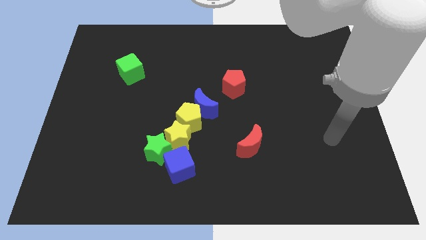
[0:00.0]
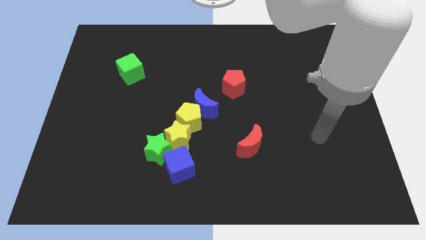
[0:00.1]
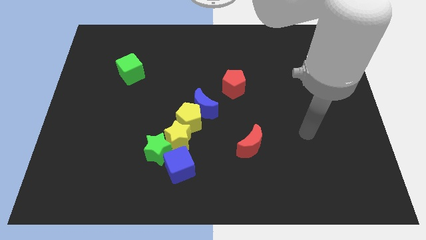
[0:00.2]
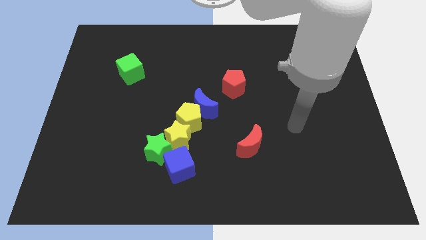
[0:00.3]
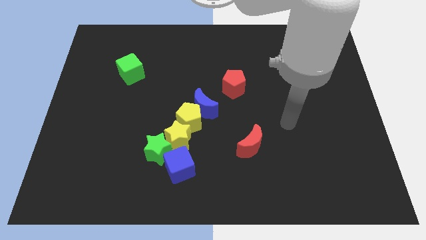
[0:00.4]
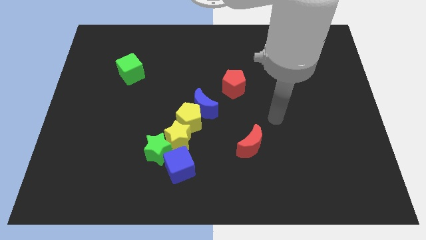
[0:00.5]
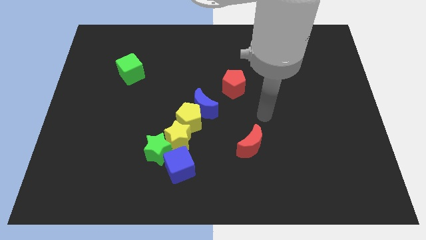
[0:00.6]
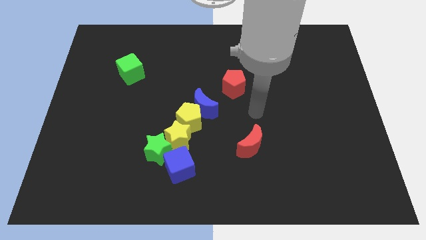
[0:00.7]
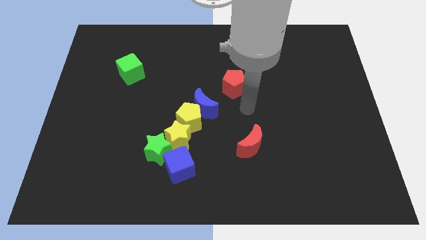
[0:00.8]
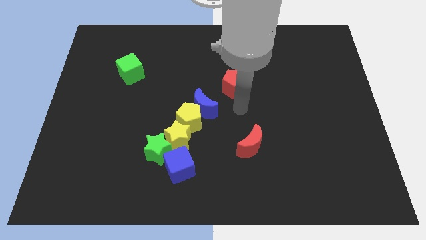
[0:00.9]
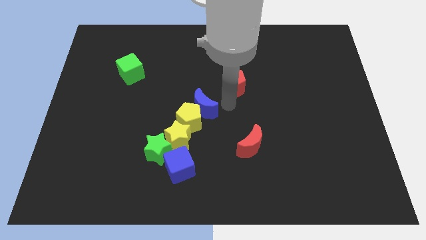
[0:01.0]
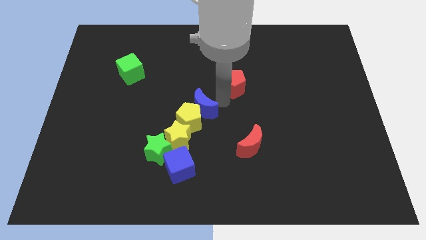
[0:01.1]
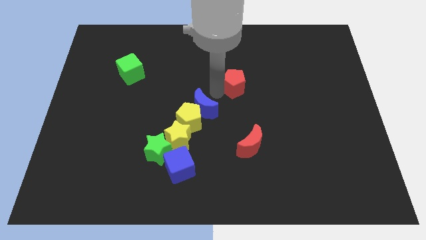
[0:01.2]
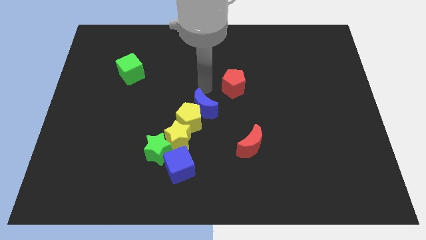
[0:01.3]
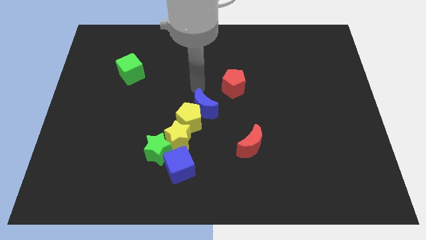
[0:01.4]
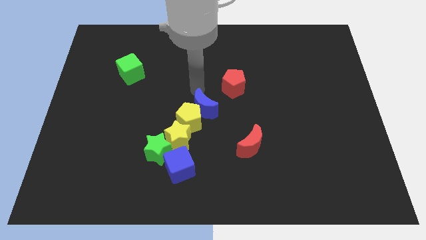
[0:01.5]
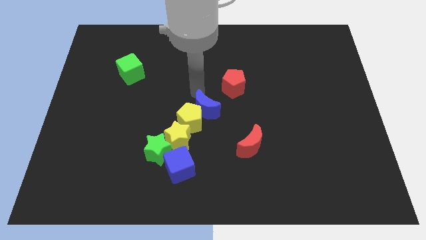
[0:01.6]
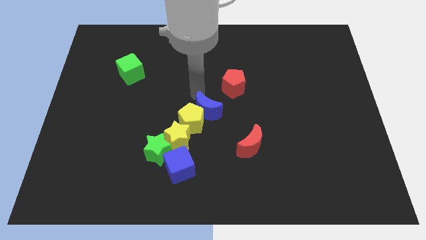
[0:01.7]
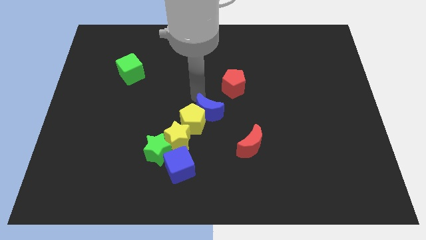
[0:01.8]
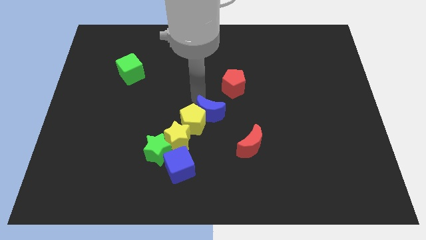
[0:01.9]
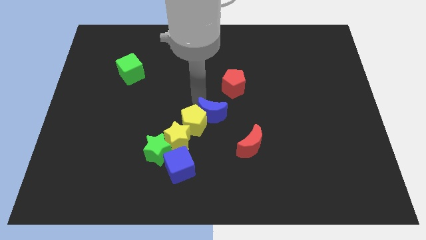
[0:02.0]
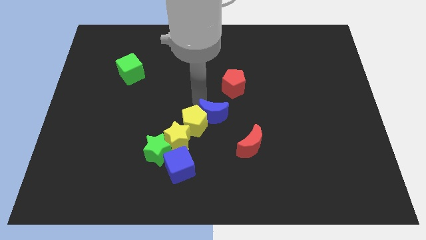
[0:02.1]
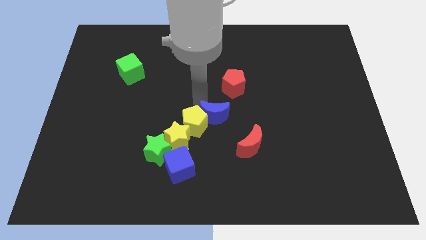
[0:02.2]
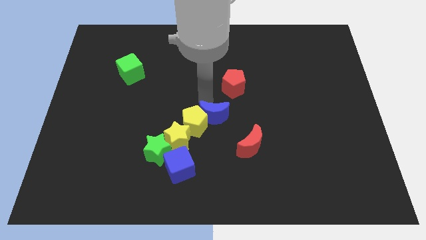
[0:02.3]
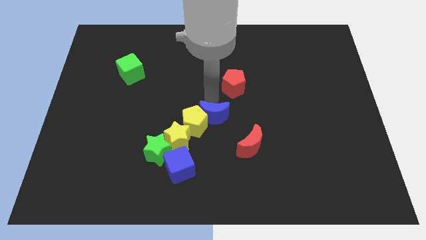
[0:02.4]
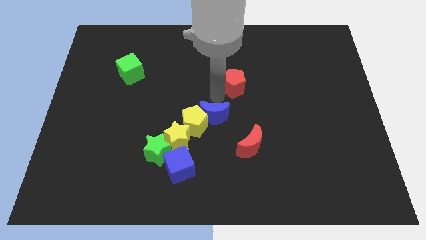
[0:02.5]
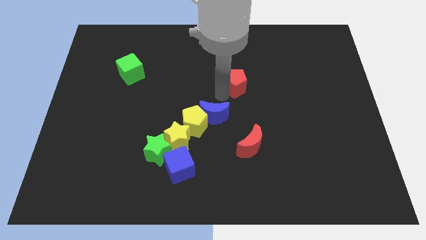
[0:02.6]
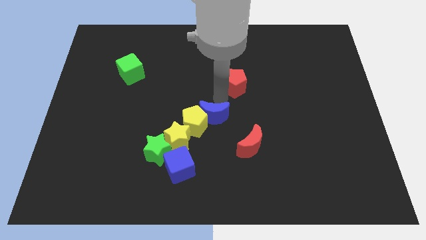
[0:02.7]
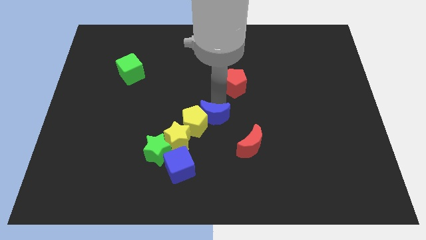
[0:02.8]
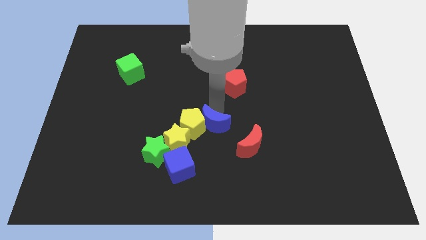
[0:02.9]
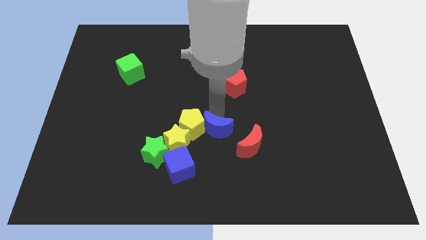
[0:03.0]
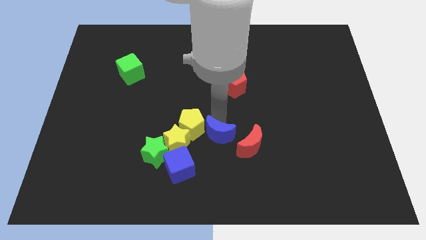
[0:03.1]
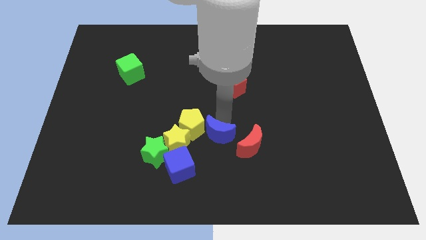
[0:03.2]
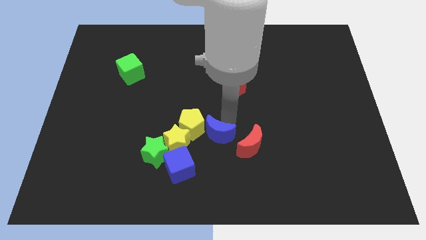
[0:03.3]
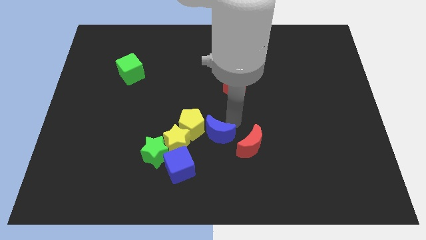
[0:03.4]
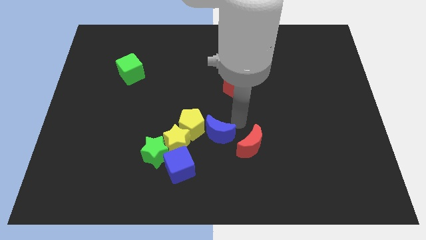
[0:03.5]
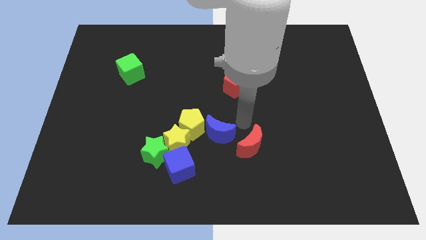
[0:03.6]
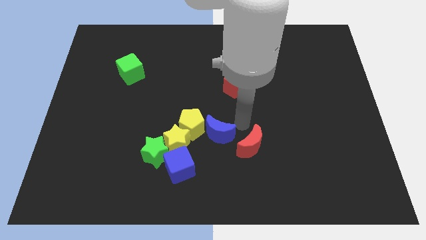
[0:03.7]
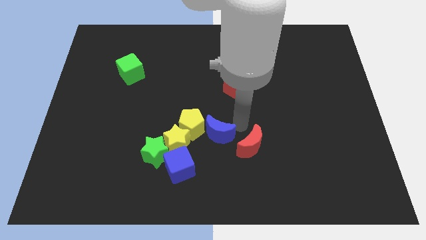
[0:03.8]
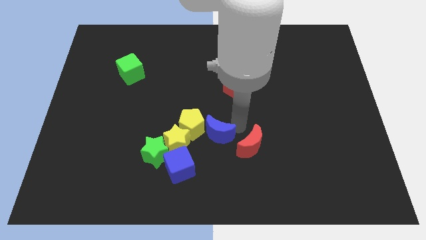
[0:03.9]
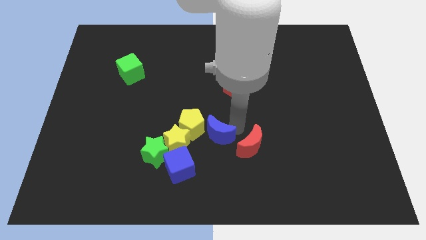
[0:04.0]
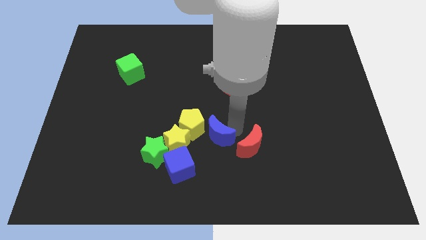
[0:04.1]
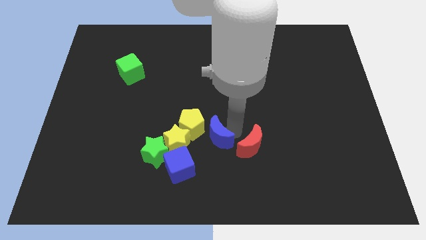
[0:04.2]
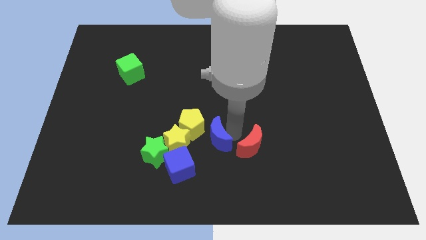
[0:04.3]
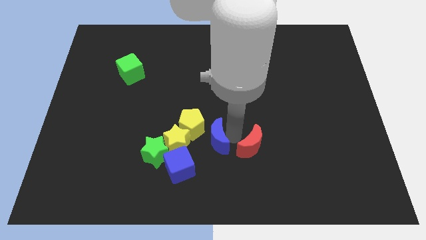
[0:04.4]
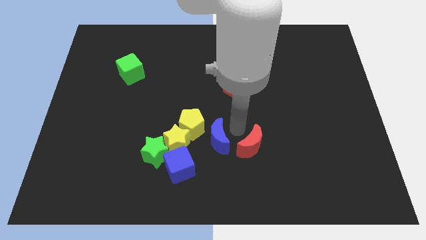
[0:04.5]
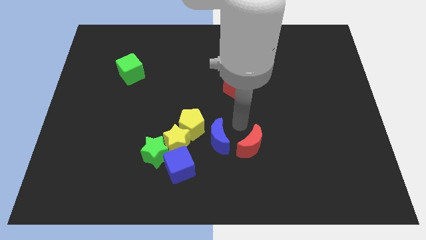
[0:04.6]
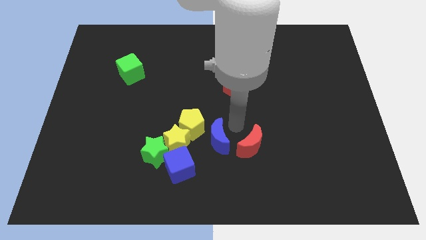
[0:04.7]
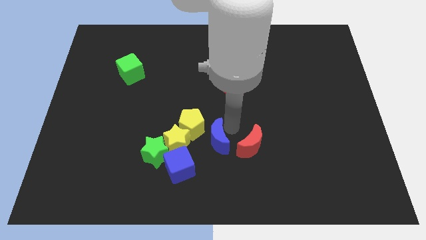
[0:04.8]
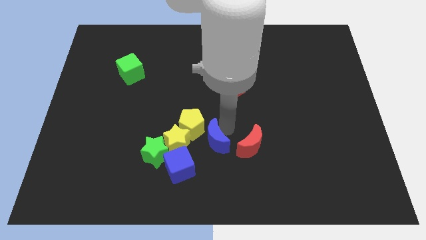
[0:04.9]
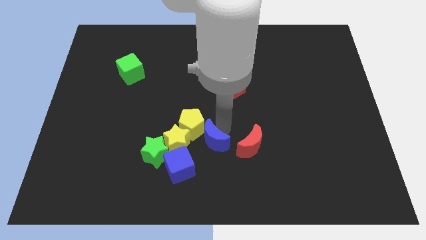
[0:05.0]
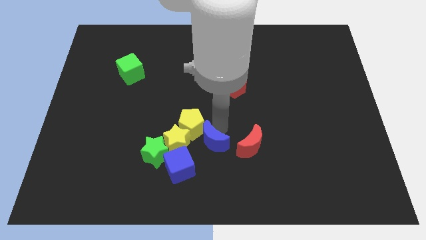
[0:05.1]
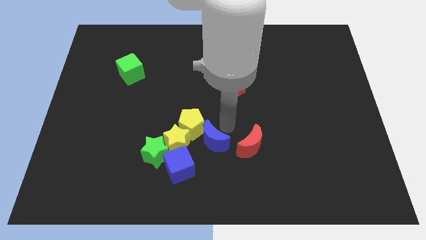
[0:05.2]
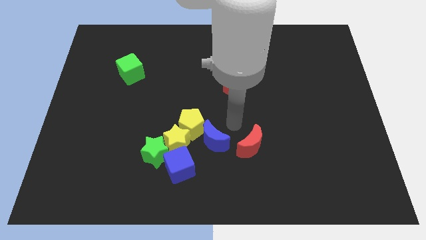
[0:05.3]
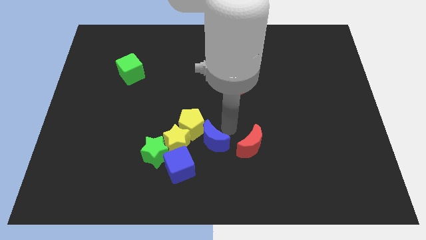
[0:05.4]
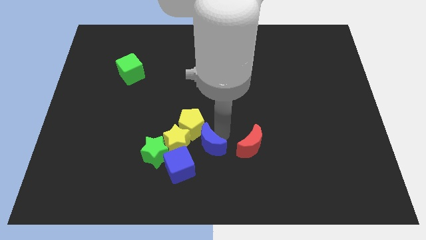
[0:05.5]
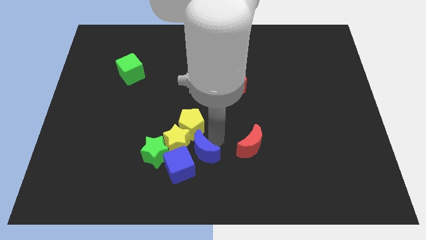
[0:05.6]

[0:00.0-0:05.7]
slide the blue moon next to the blue cube

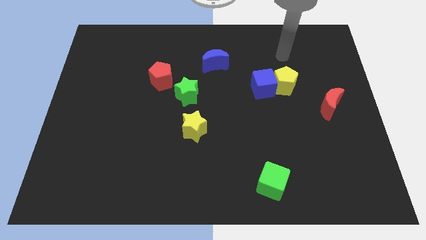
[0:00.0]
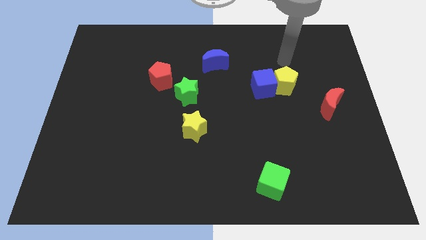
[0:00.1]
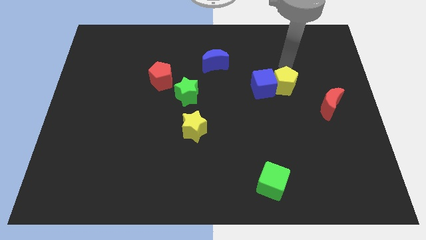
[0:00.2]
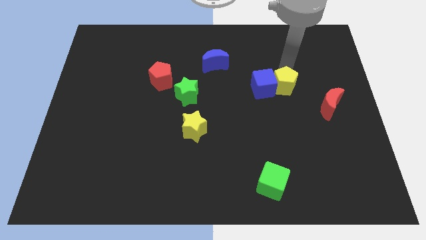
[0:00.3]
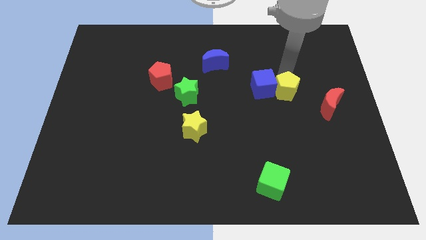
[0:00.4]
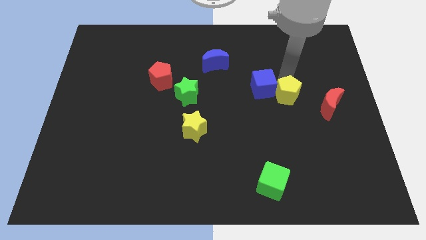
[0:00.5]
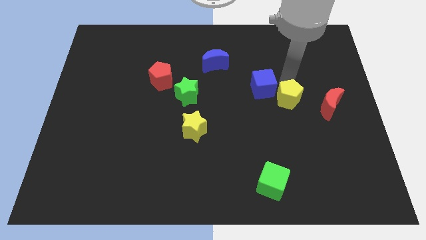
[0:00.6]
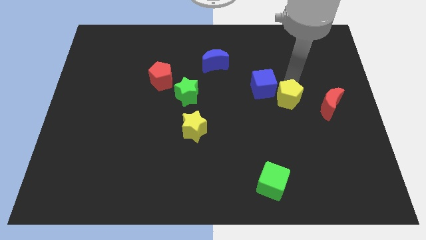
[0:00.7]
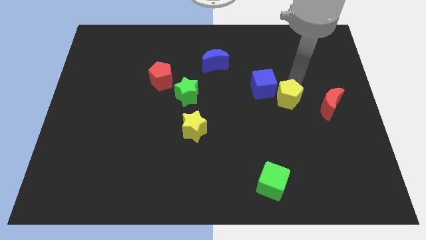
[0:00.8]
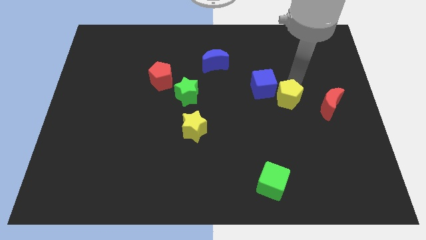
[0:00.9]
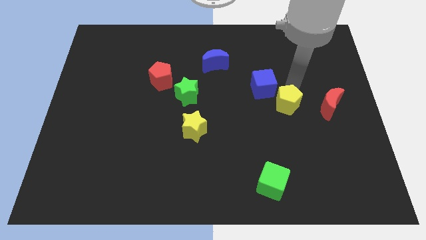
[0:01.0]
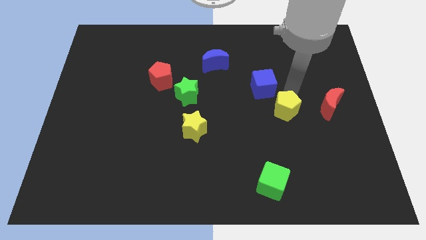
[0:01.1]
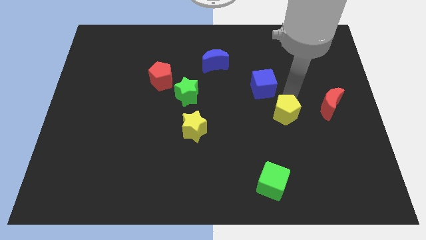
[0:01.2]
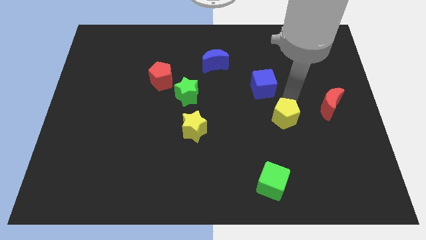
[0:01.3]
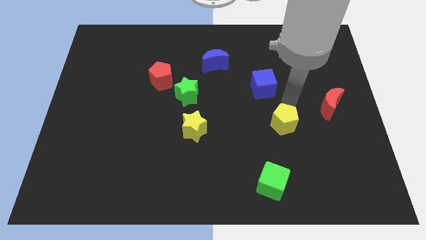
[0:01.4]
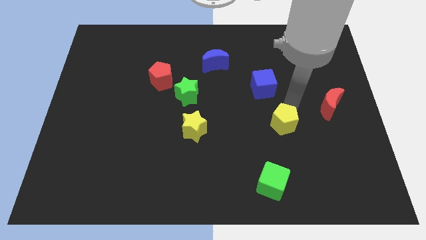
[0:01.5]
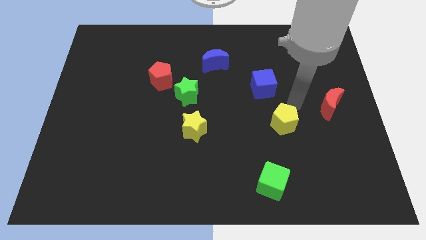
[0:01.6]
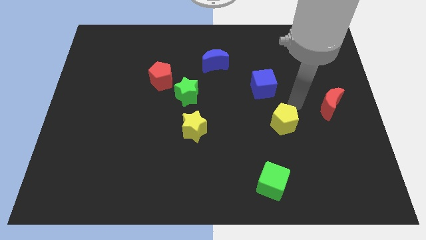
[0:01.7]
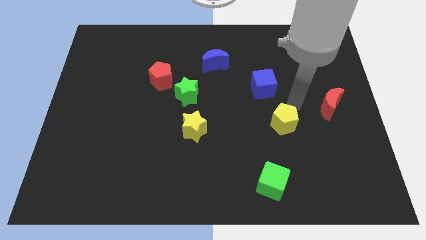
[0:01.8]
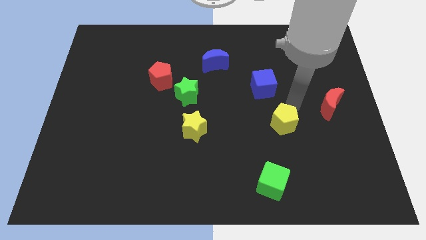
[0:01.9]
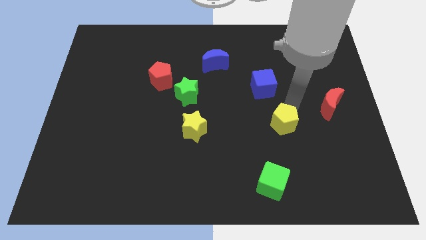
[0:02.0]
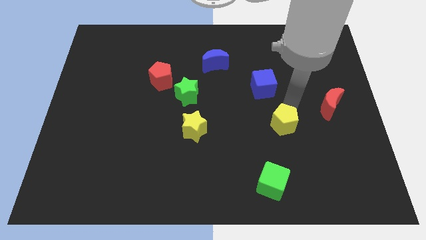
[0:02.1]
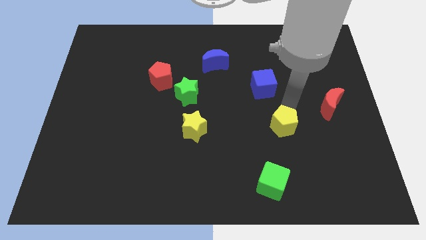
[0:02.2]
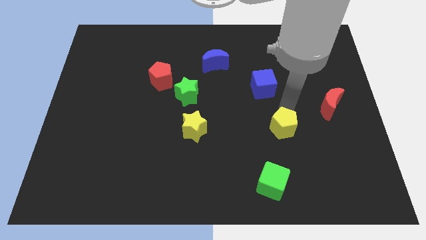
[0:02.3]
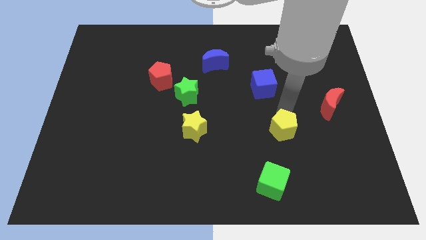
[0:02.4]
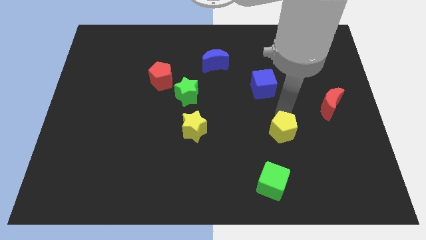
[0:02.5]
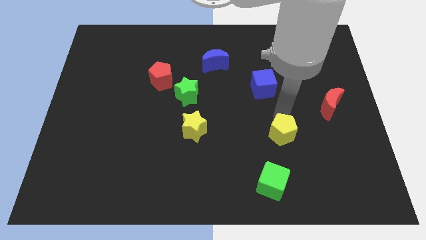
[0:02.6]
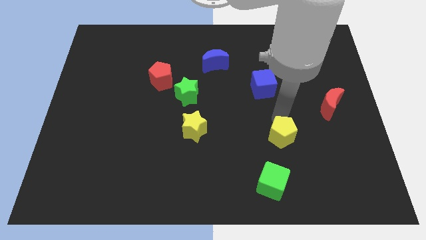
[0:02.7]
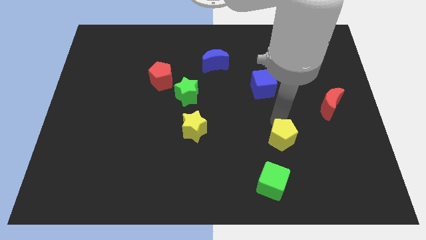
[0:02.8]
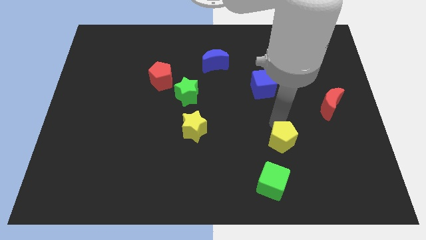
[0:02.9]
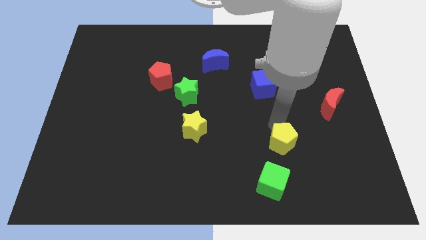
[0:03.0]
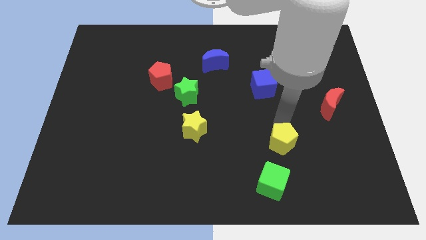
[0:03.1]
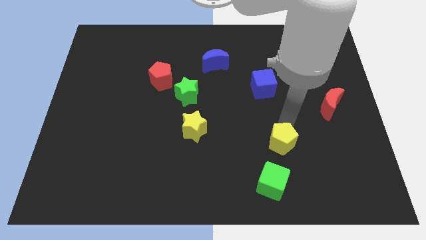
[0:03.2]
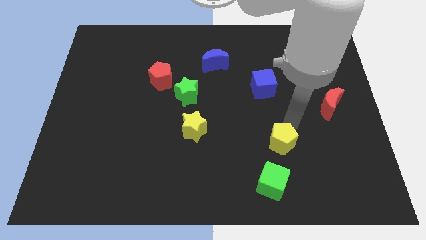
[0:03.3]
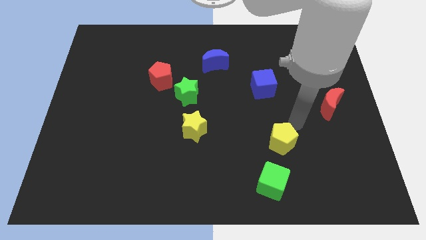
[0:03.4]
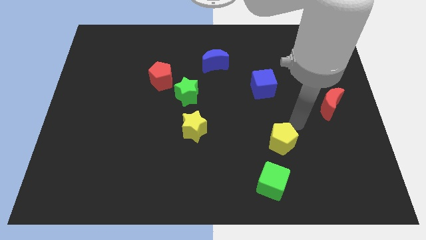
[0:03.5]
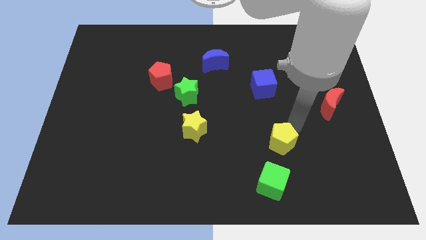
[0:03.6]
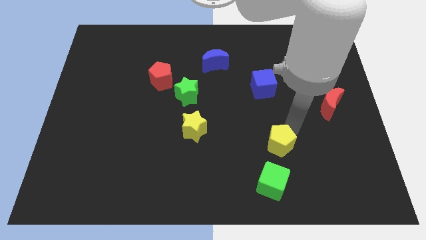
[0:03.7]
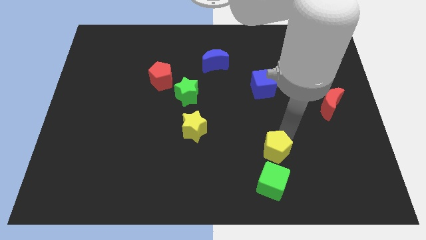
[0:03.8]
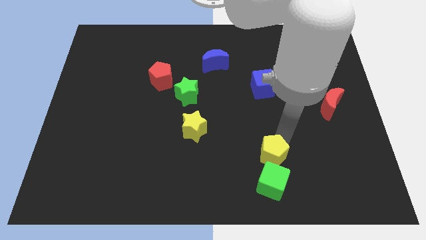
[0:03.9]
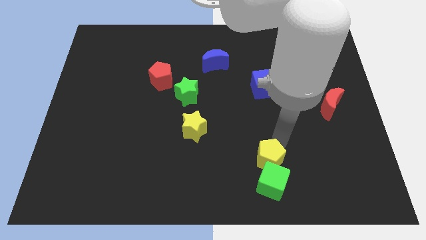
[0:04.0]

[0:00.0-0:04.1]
slide the yellow pentagon close to the green cube
